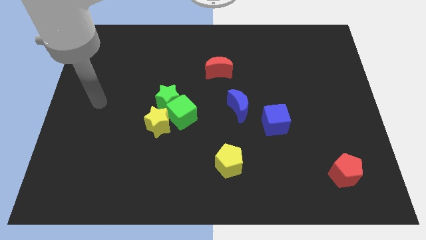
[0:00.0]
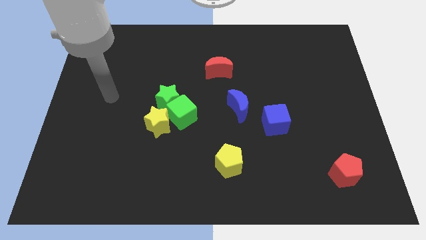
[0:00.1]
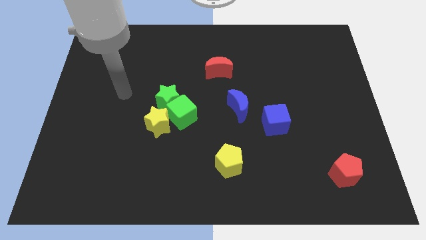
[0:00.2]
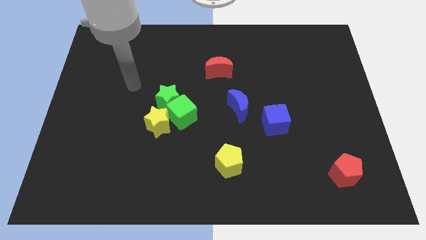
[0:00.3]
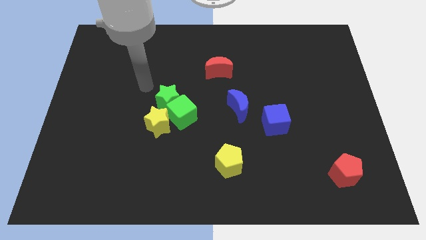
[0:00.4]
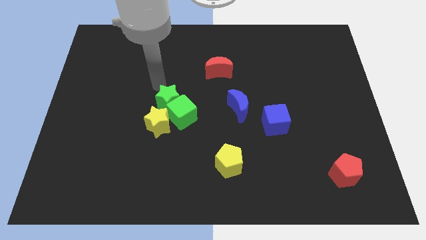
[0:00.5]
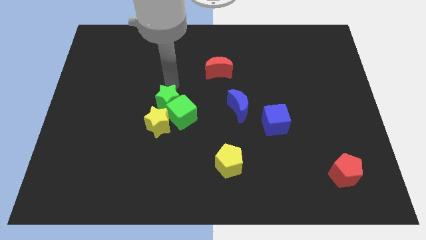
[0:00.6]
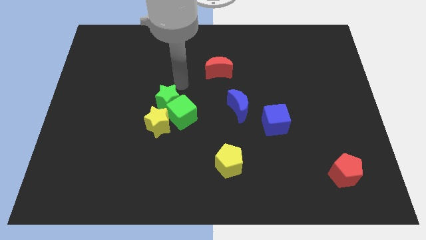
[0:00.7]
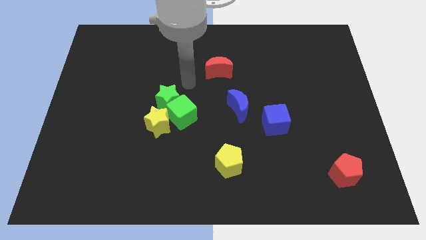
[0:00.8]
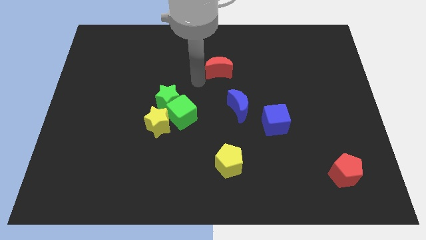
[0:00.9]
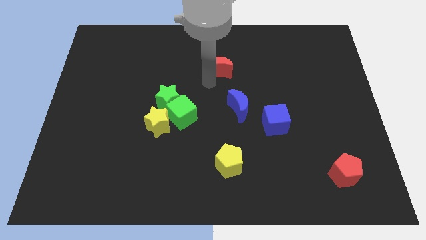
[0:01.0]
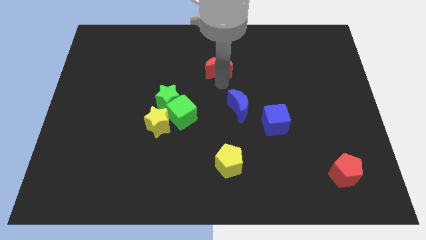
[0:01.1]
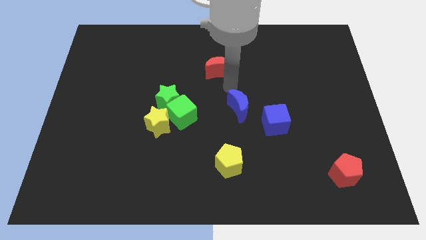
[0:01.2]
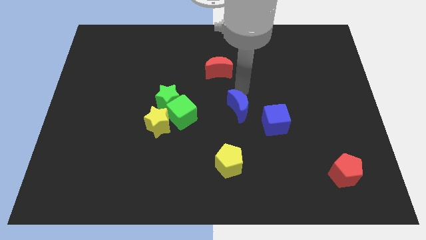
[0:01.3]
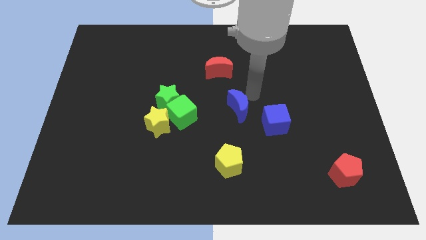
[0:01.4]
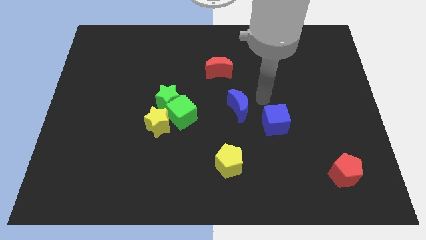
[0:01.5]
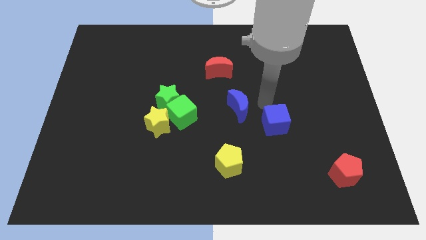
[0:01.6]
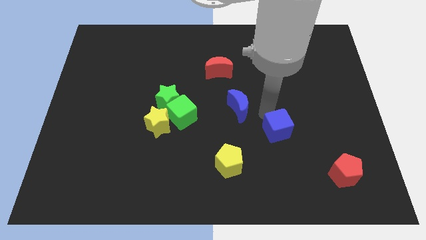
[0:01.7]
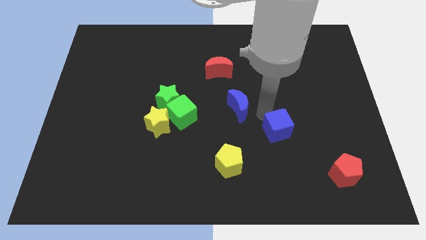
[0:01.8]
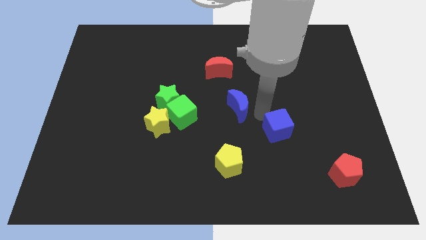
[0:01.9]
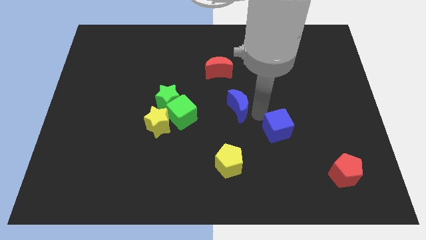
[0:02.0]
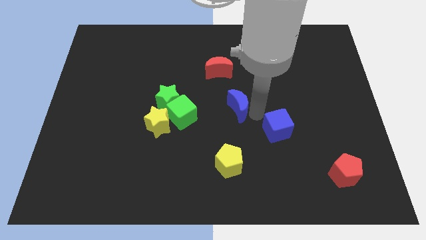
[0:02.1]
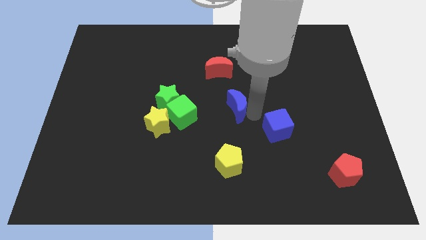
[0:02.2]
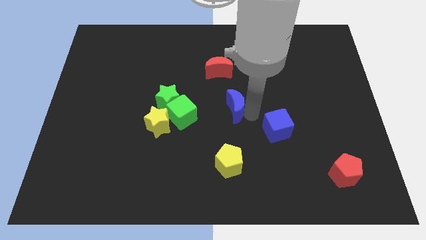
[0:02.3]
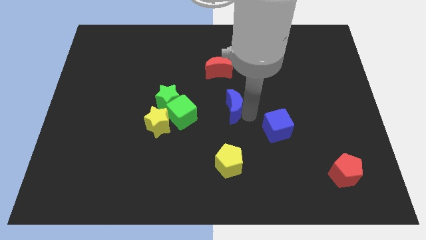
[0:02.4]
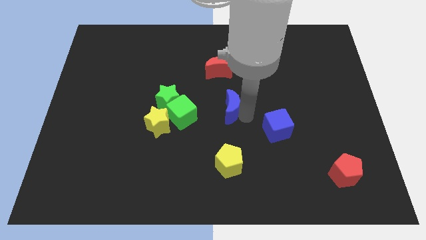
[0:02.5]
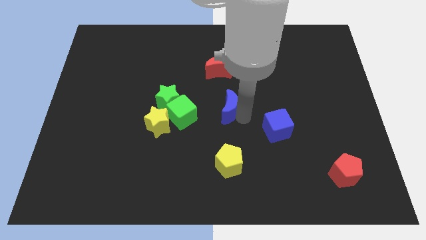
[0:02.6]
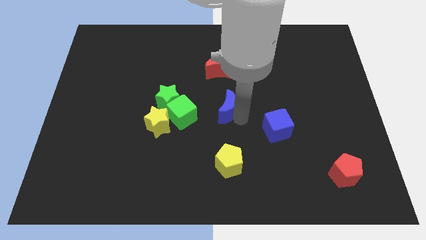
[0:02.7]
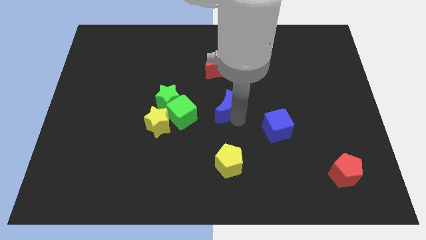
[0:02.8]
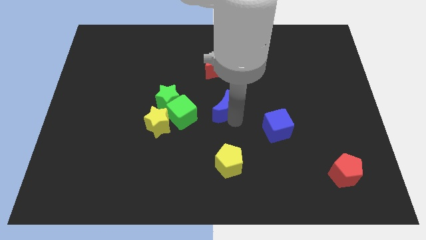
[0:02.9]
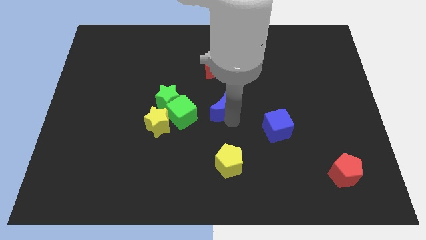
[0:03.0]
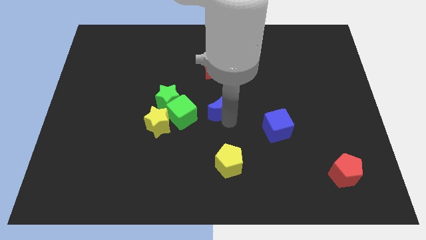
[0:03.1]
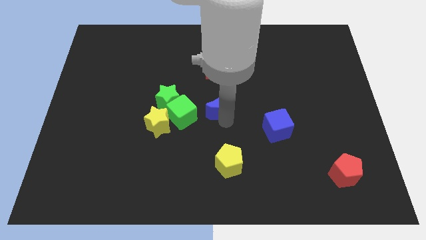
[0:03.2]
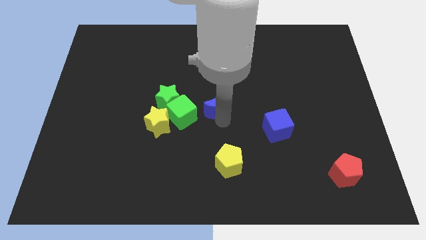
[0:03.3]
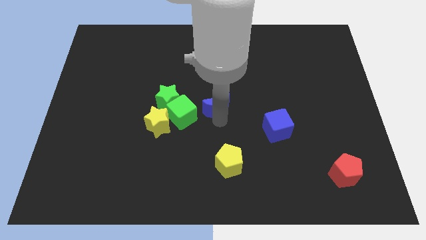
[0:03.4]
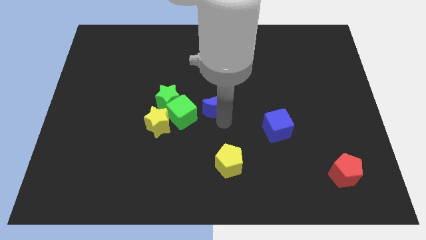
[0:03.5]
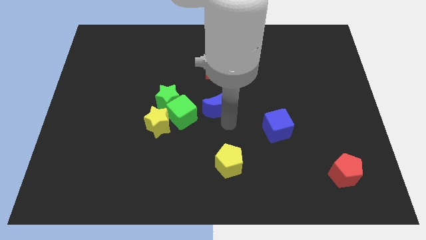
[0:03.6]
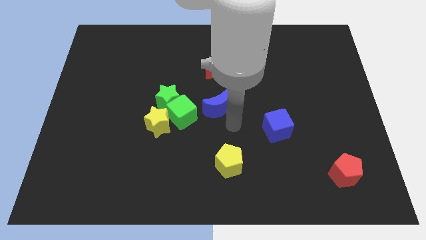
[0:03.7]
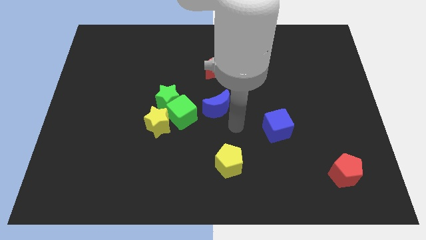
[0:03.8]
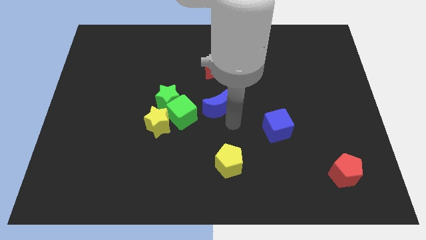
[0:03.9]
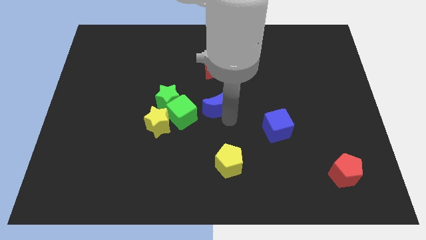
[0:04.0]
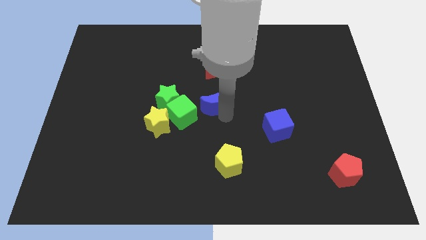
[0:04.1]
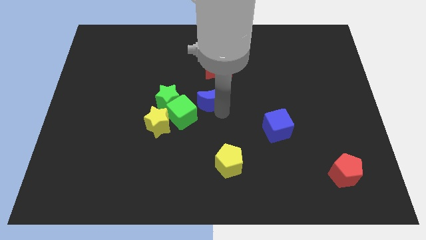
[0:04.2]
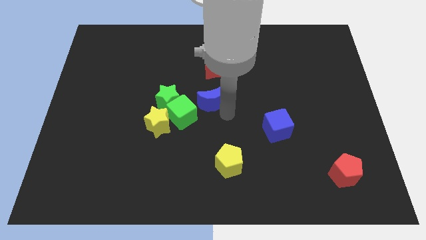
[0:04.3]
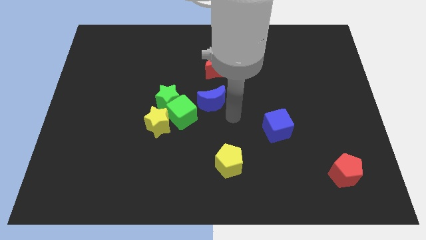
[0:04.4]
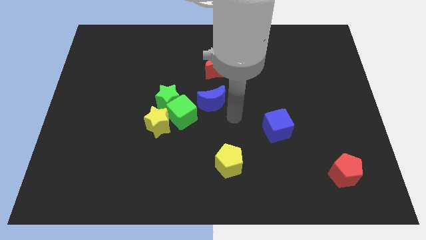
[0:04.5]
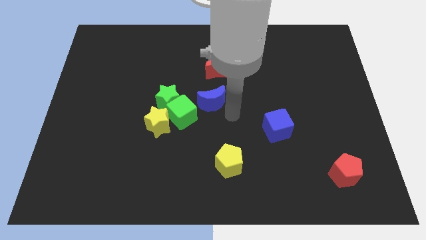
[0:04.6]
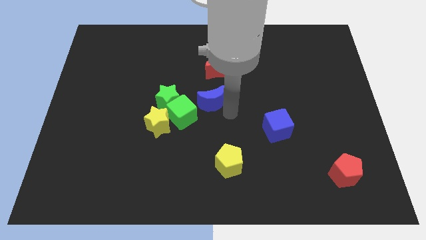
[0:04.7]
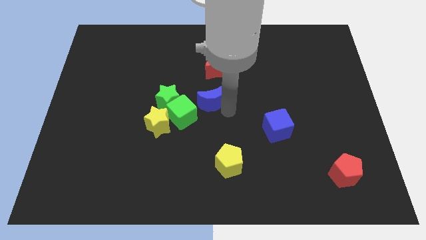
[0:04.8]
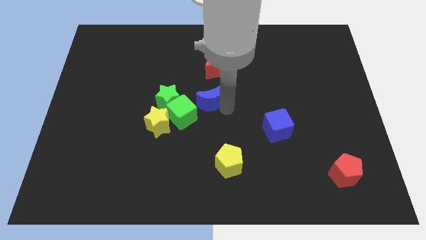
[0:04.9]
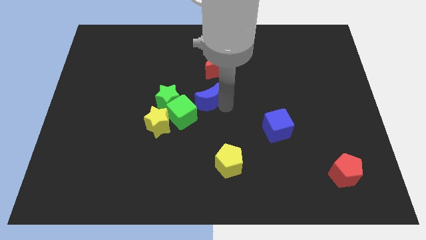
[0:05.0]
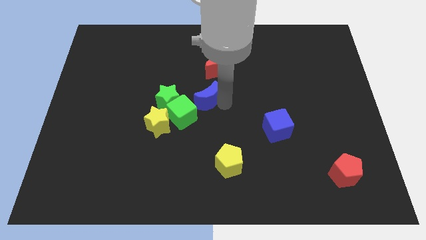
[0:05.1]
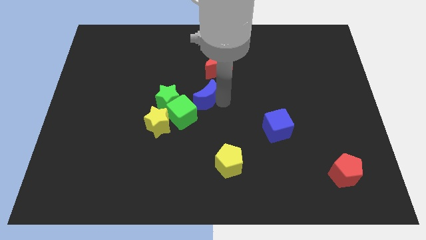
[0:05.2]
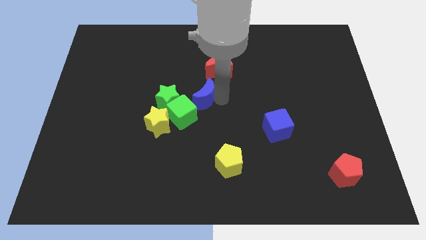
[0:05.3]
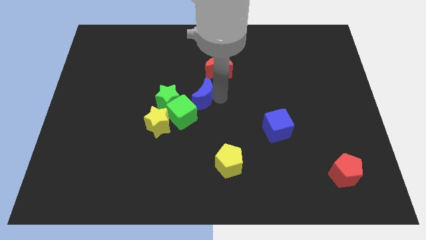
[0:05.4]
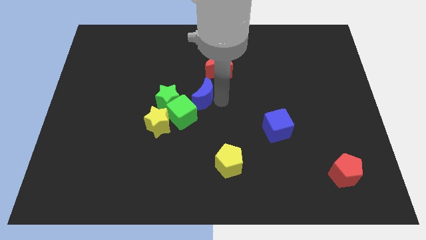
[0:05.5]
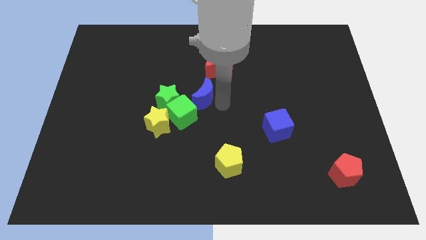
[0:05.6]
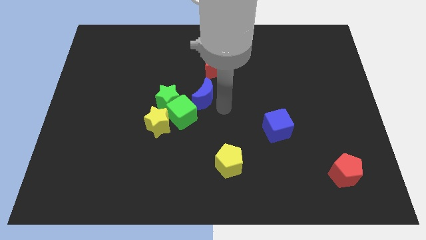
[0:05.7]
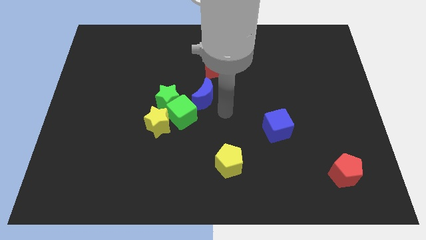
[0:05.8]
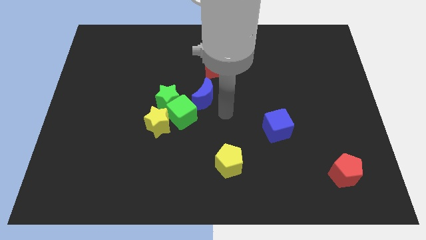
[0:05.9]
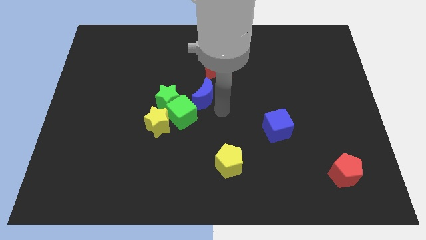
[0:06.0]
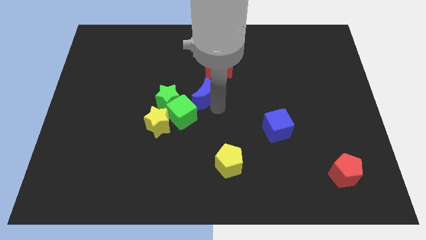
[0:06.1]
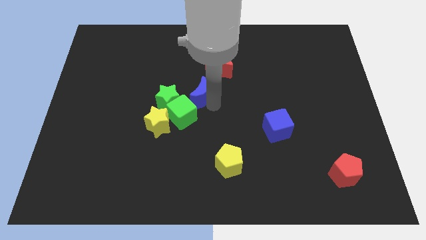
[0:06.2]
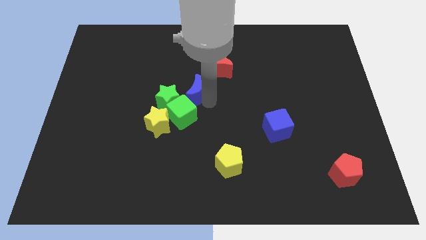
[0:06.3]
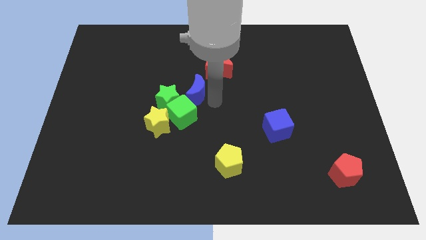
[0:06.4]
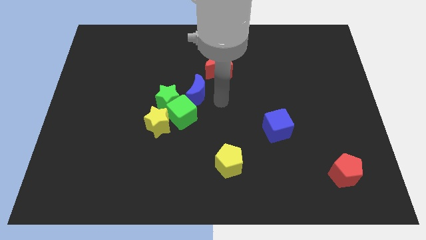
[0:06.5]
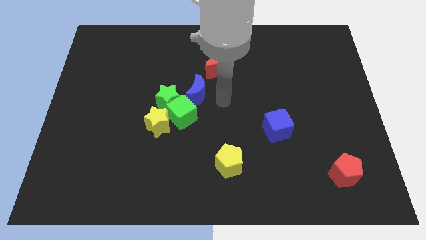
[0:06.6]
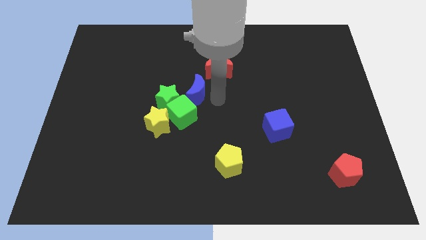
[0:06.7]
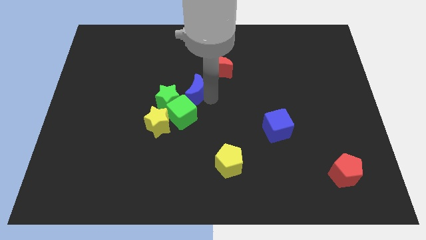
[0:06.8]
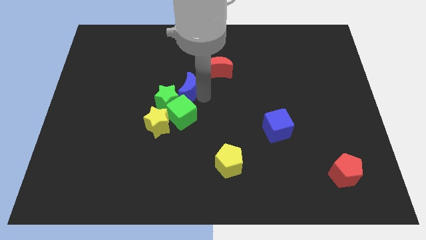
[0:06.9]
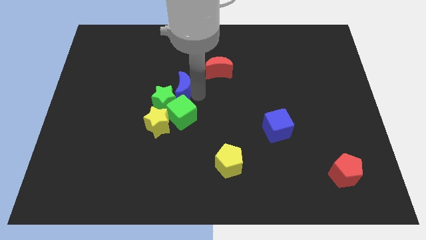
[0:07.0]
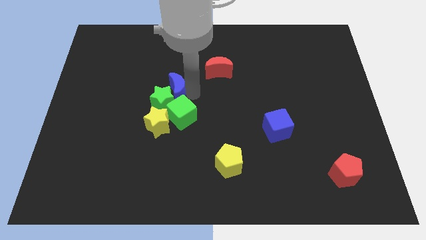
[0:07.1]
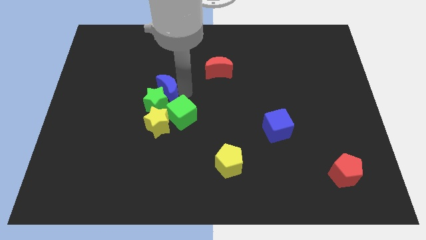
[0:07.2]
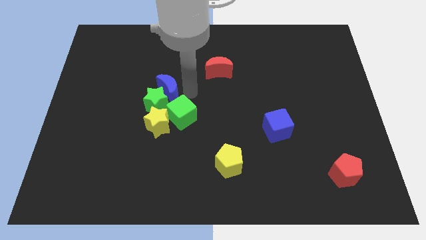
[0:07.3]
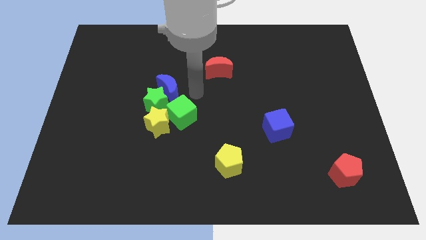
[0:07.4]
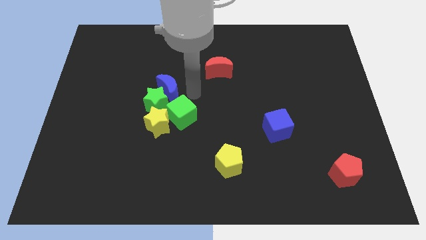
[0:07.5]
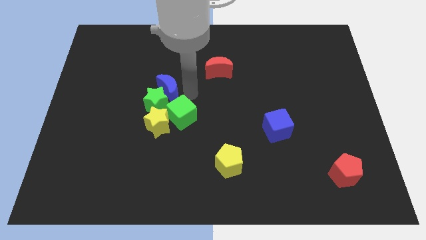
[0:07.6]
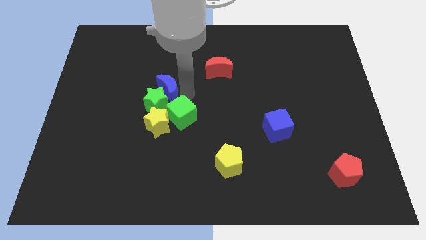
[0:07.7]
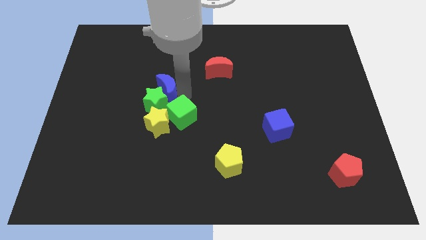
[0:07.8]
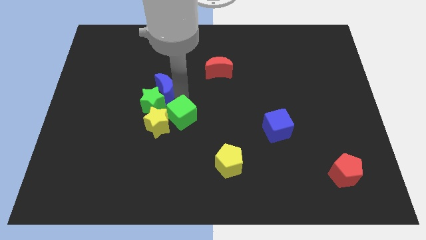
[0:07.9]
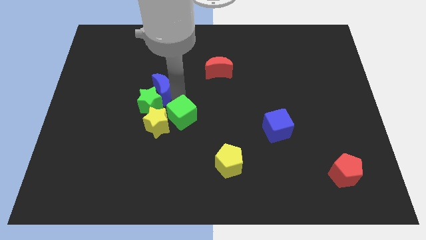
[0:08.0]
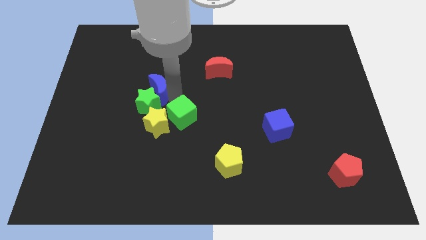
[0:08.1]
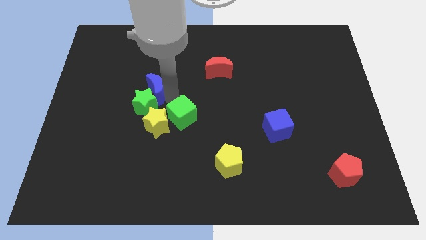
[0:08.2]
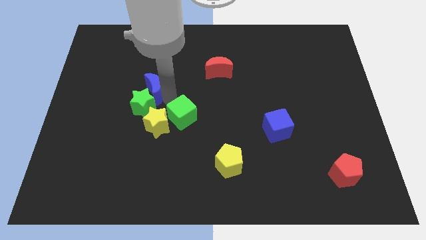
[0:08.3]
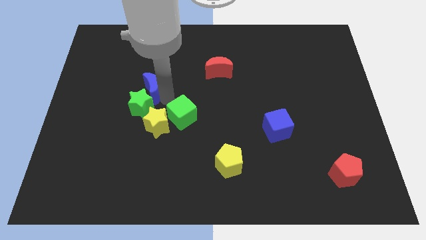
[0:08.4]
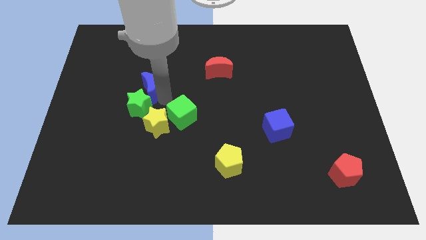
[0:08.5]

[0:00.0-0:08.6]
push the blue moon to the left
